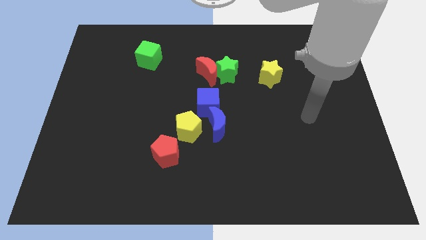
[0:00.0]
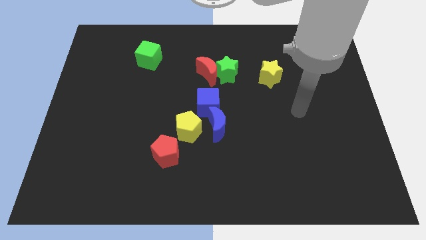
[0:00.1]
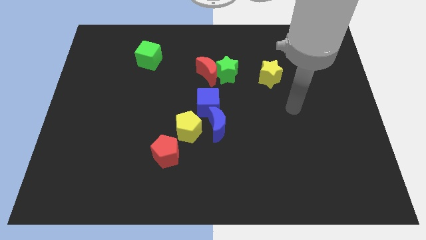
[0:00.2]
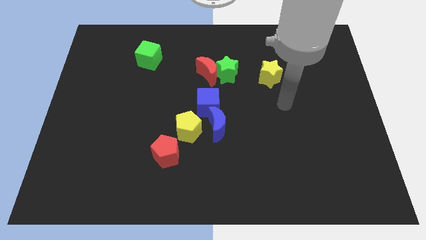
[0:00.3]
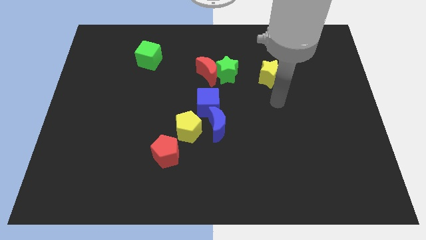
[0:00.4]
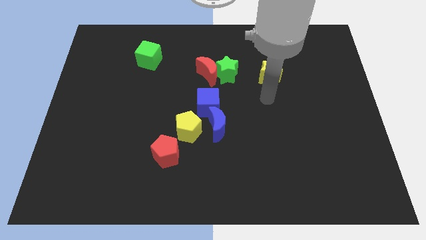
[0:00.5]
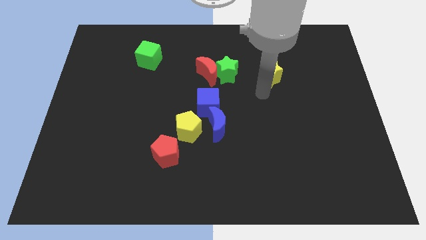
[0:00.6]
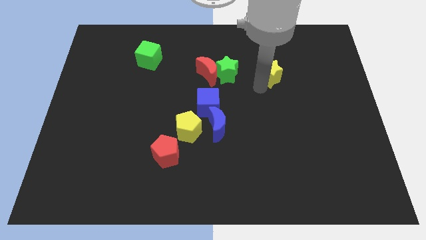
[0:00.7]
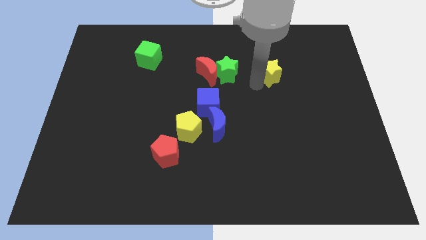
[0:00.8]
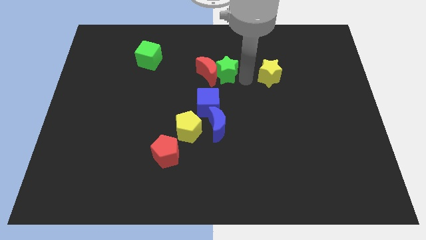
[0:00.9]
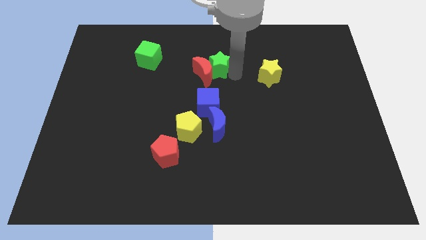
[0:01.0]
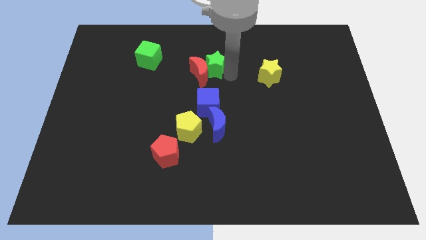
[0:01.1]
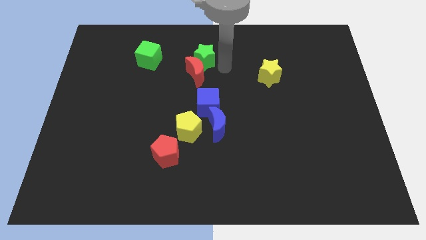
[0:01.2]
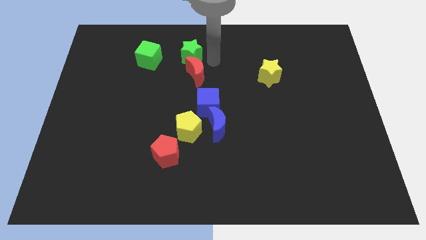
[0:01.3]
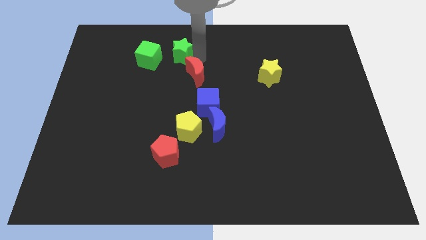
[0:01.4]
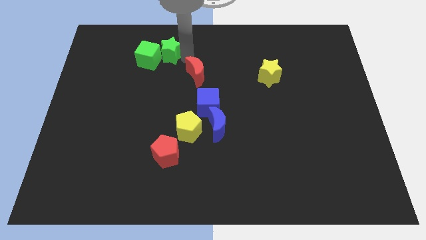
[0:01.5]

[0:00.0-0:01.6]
separate the red moon from the green star

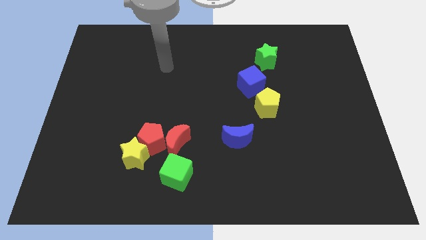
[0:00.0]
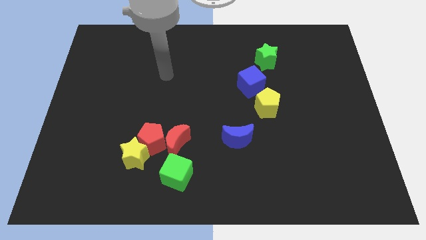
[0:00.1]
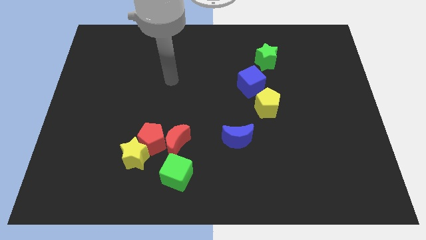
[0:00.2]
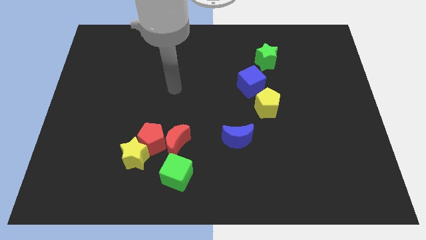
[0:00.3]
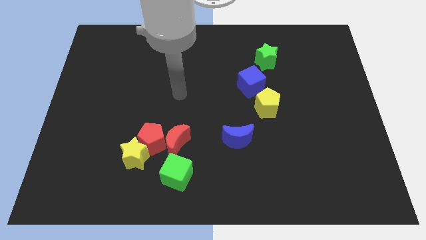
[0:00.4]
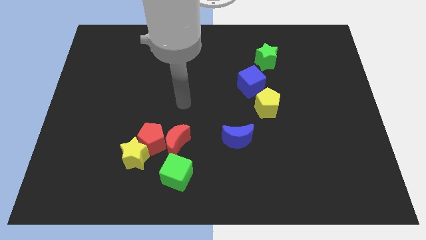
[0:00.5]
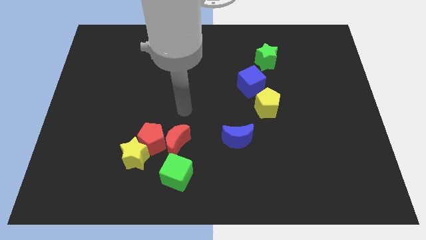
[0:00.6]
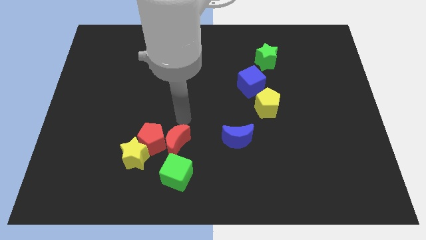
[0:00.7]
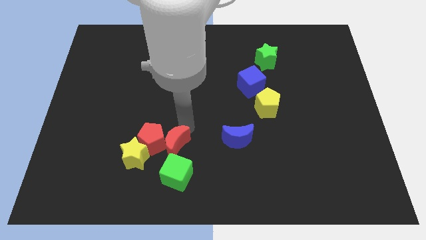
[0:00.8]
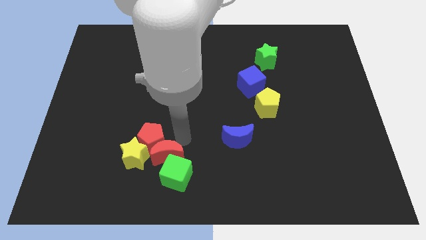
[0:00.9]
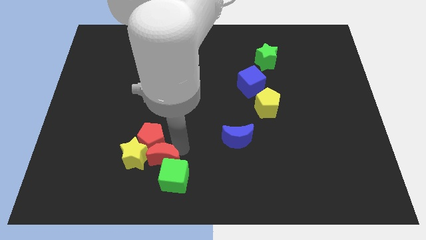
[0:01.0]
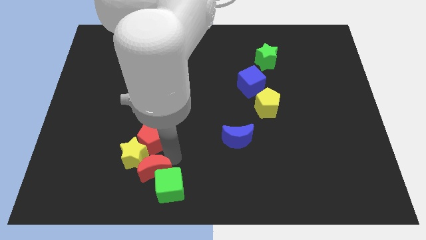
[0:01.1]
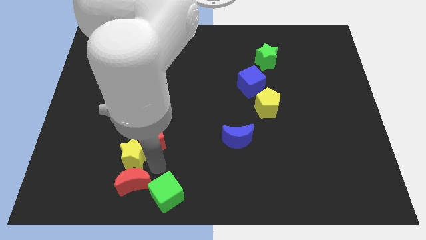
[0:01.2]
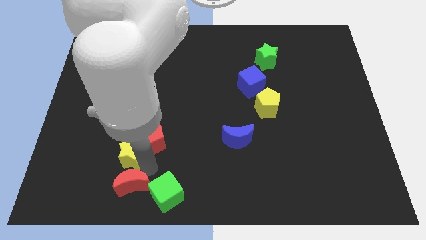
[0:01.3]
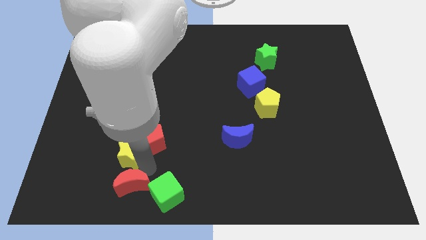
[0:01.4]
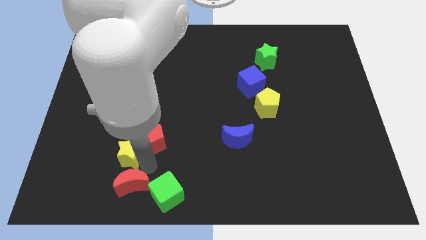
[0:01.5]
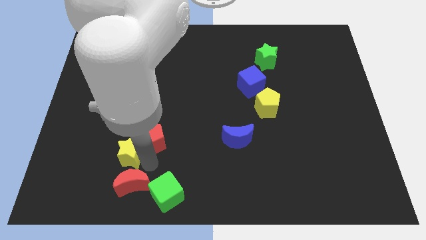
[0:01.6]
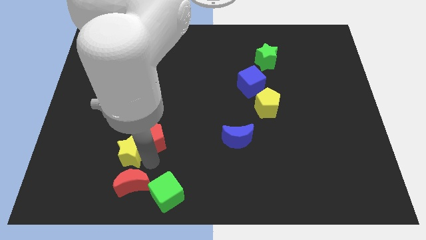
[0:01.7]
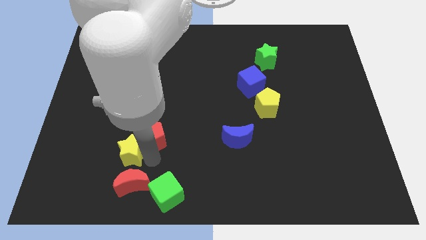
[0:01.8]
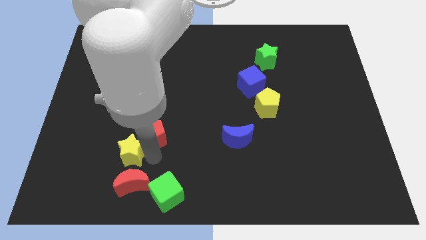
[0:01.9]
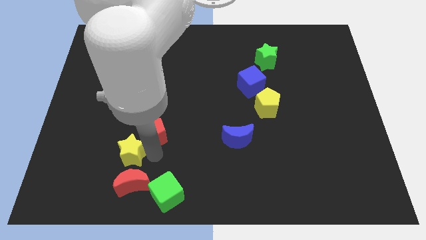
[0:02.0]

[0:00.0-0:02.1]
separate the red pentagon from the clump

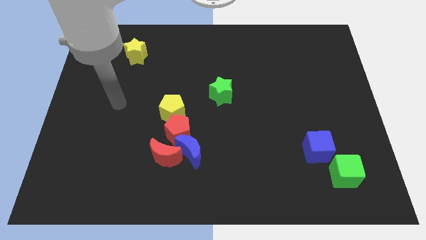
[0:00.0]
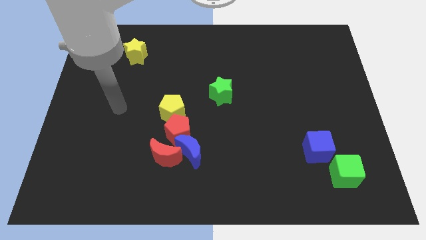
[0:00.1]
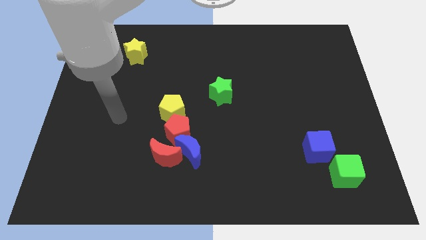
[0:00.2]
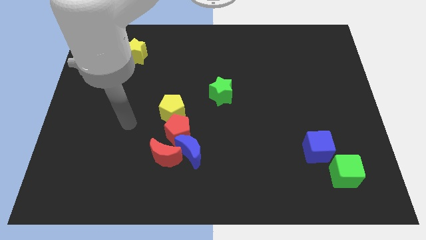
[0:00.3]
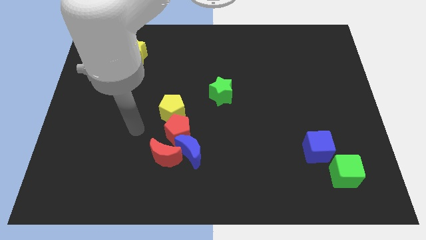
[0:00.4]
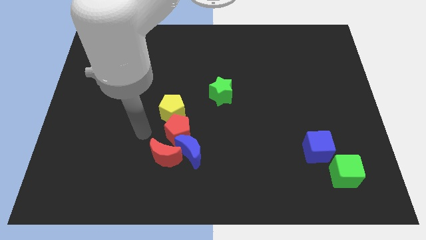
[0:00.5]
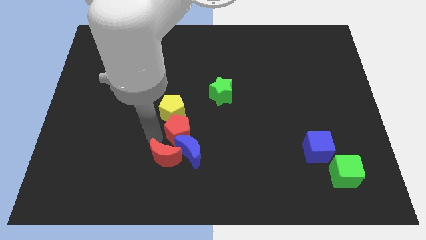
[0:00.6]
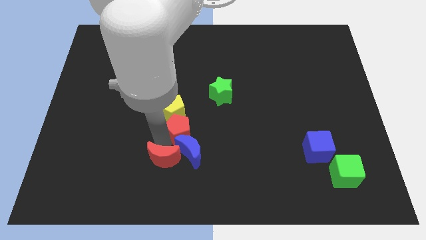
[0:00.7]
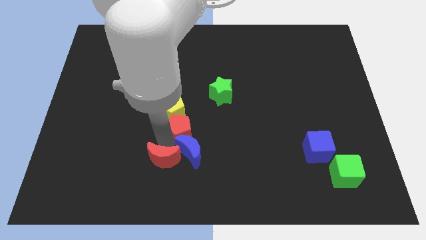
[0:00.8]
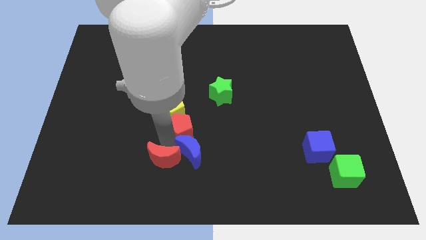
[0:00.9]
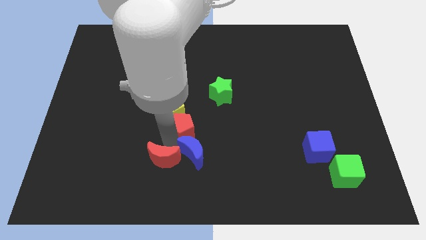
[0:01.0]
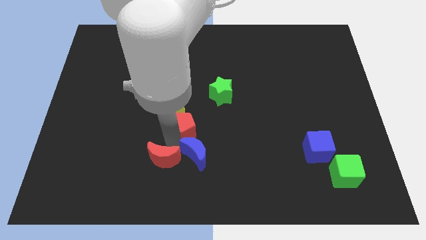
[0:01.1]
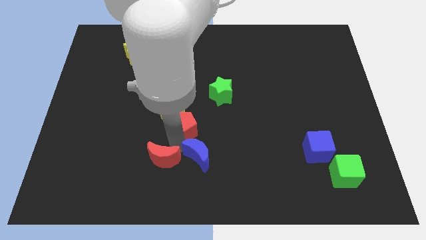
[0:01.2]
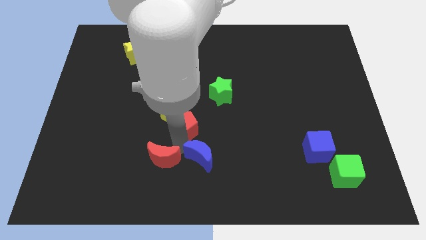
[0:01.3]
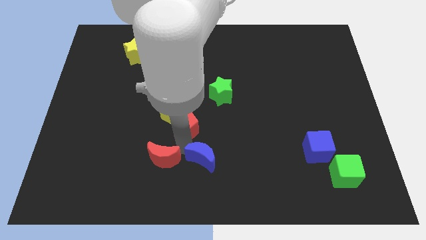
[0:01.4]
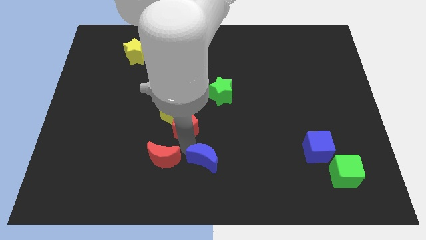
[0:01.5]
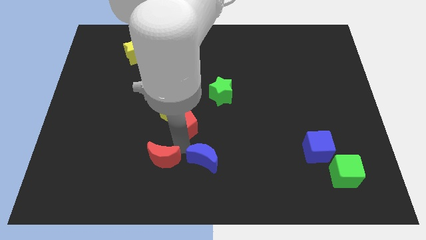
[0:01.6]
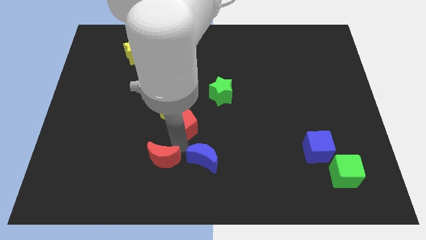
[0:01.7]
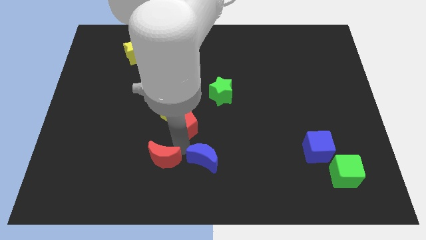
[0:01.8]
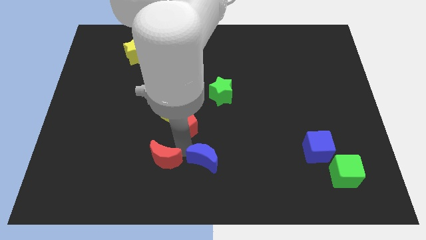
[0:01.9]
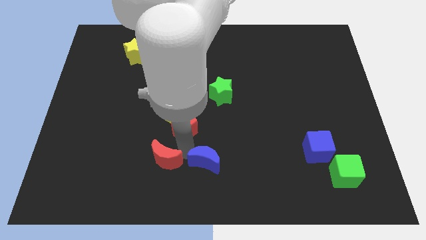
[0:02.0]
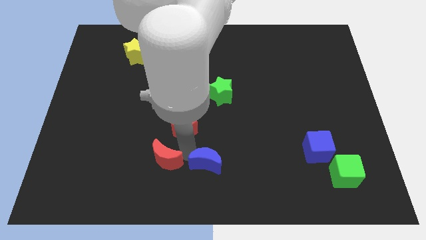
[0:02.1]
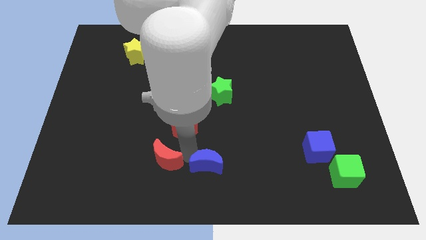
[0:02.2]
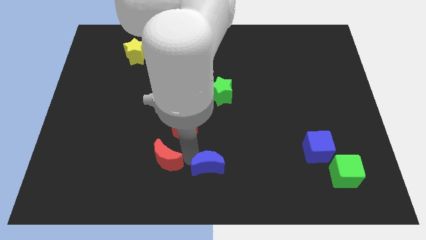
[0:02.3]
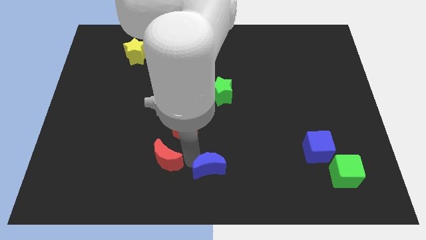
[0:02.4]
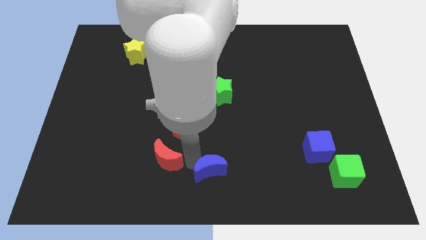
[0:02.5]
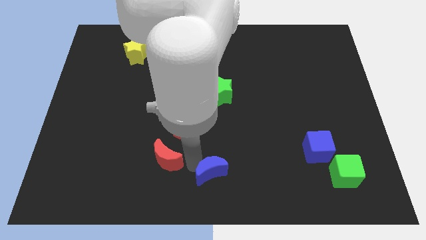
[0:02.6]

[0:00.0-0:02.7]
separate the blue moon from the red moon and red pentagon

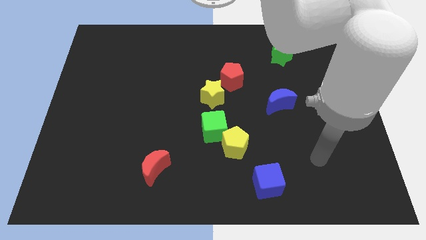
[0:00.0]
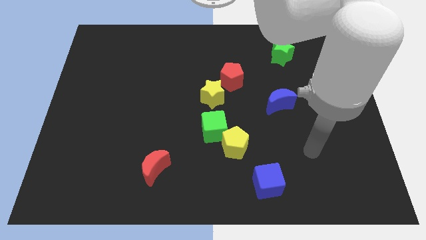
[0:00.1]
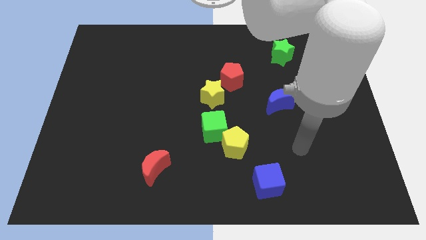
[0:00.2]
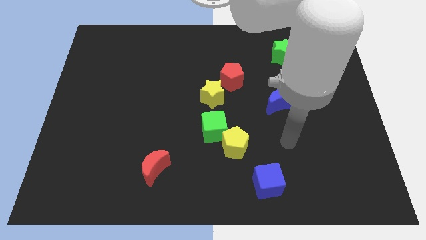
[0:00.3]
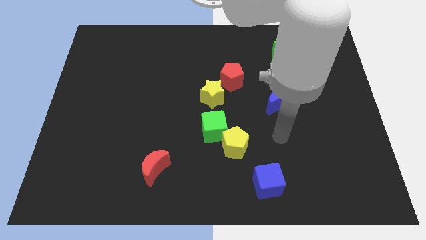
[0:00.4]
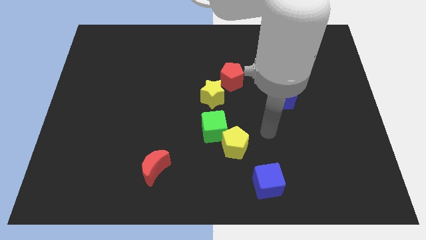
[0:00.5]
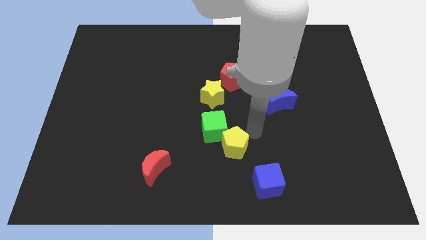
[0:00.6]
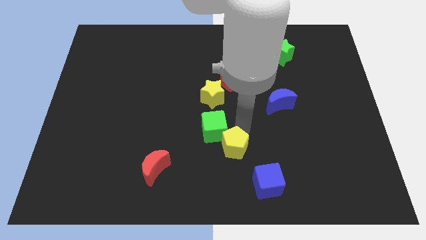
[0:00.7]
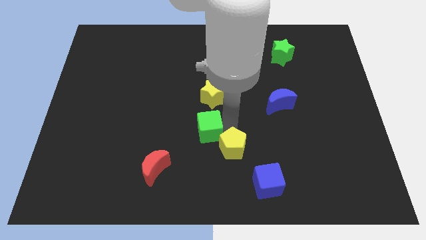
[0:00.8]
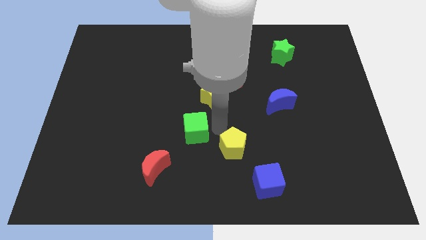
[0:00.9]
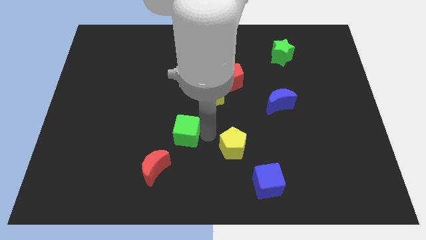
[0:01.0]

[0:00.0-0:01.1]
move the yellow pentagon away from the green cube

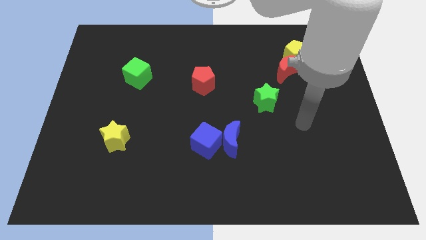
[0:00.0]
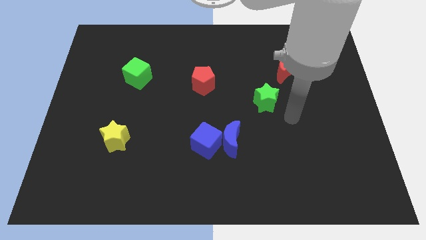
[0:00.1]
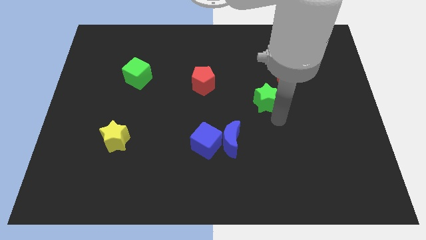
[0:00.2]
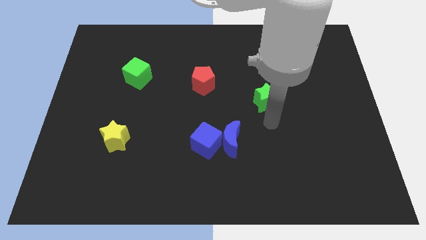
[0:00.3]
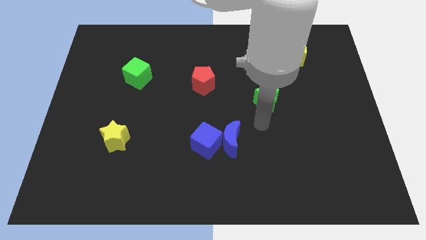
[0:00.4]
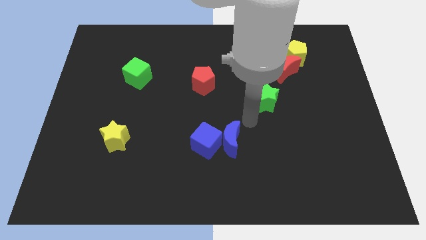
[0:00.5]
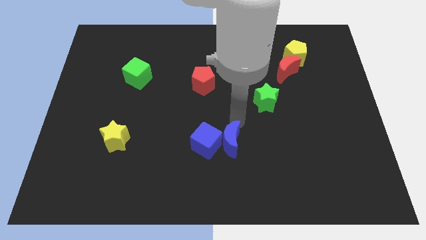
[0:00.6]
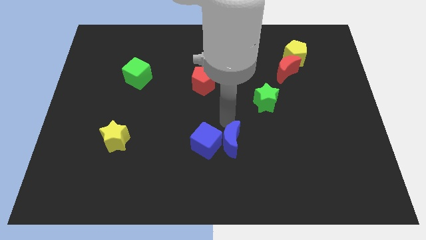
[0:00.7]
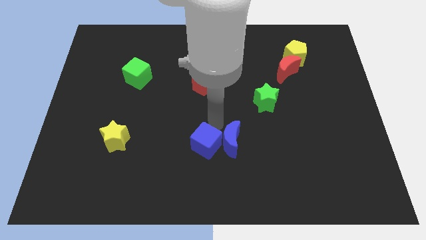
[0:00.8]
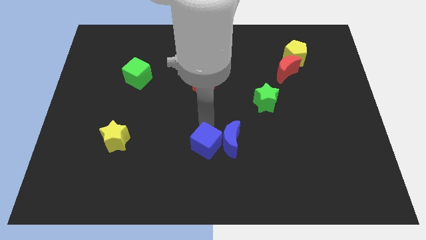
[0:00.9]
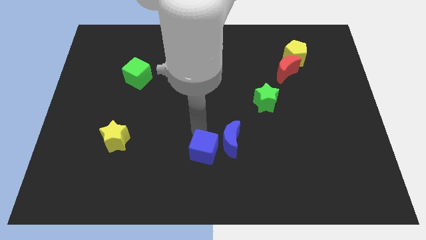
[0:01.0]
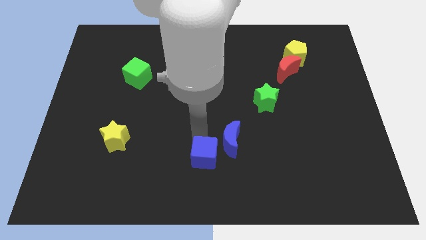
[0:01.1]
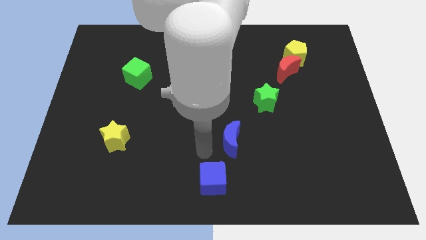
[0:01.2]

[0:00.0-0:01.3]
separate the blue moon from the blue cube

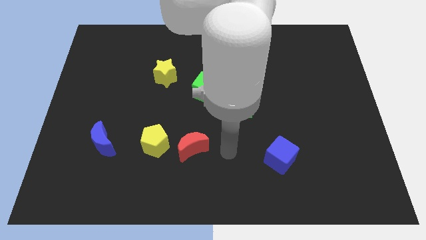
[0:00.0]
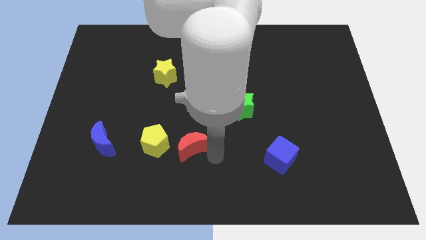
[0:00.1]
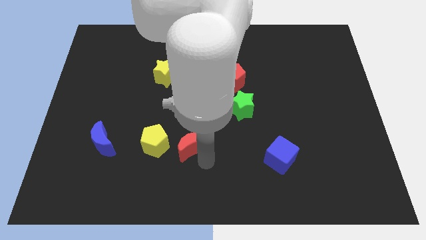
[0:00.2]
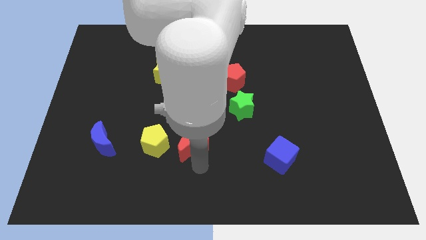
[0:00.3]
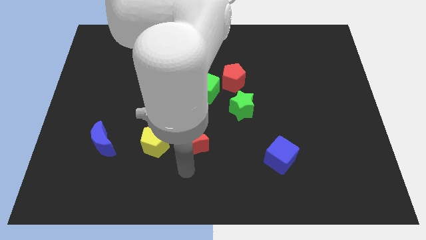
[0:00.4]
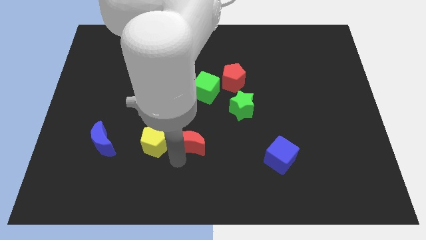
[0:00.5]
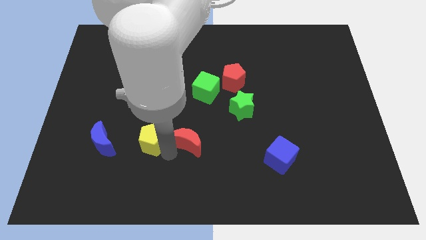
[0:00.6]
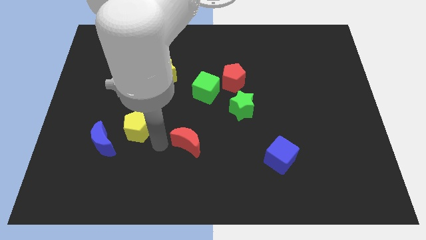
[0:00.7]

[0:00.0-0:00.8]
pull the red moon apart from the yellow pentagon
